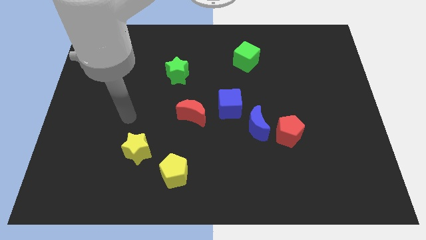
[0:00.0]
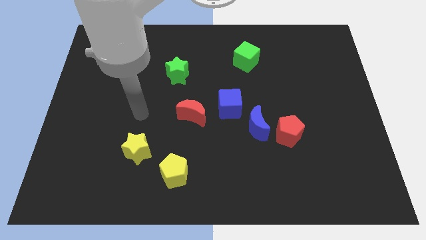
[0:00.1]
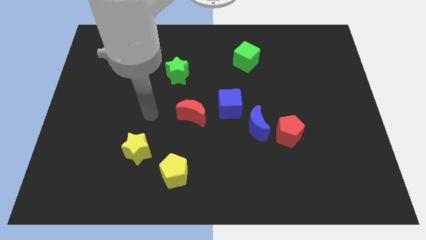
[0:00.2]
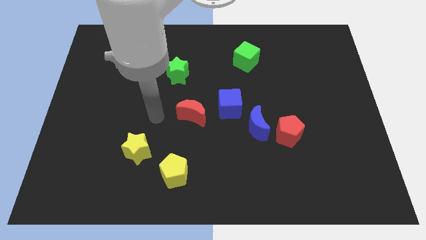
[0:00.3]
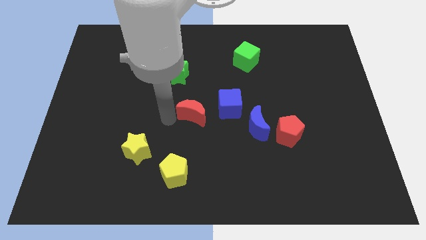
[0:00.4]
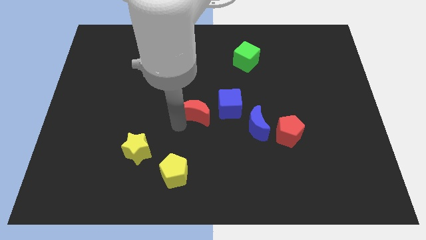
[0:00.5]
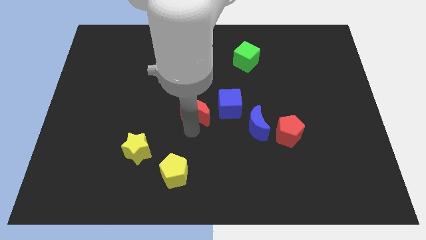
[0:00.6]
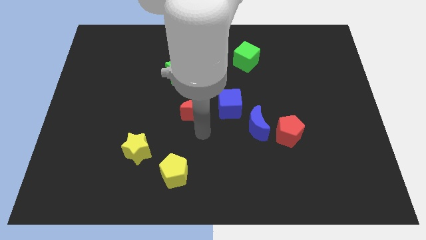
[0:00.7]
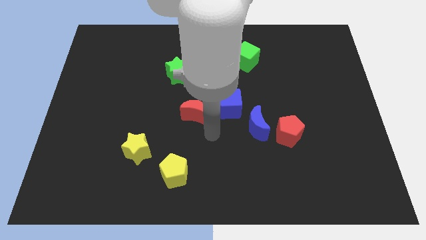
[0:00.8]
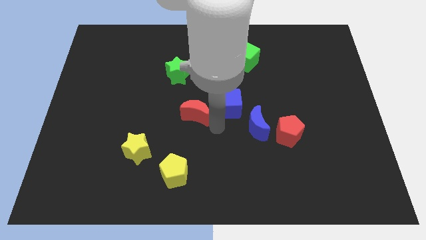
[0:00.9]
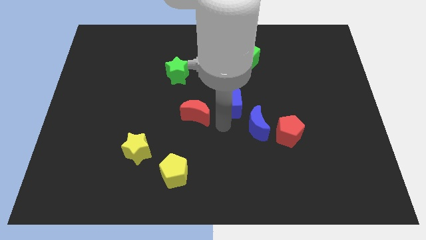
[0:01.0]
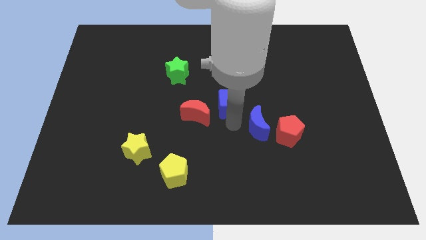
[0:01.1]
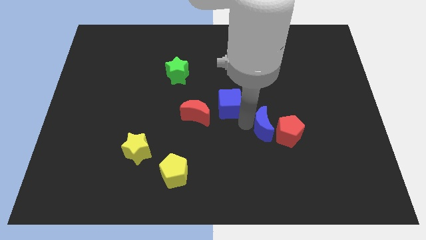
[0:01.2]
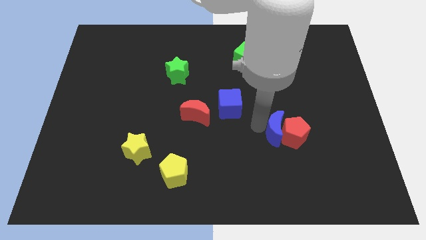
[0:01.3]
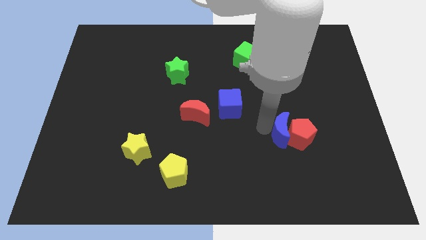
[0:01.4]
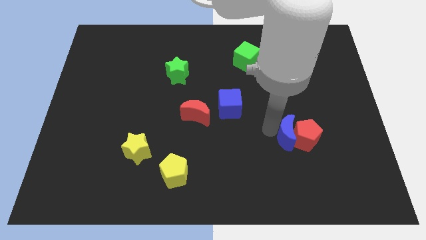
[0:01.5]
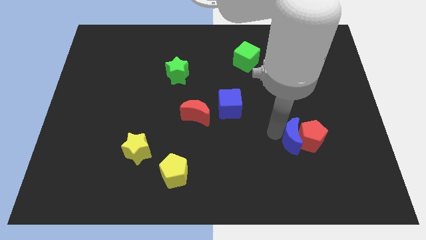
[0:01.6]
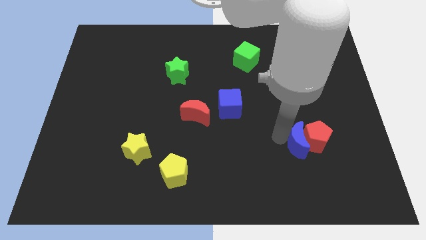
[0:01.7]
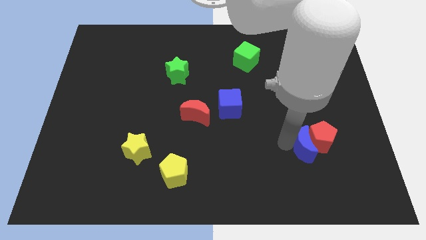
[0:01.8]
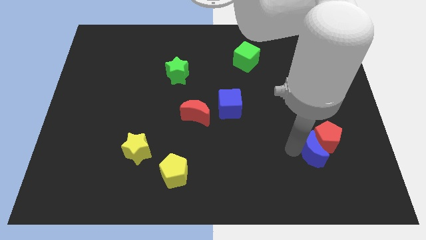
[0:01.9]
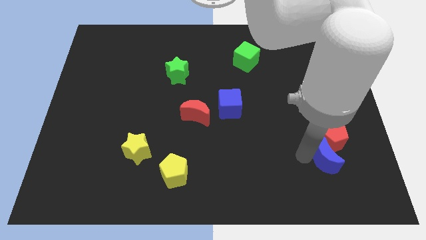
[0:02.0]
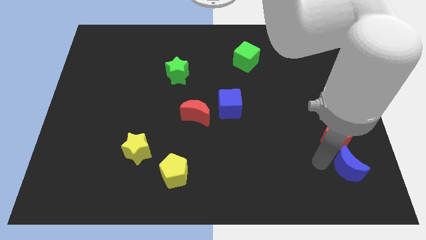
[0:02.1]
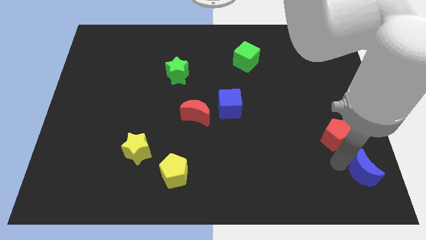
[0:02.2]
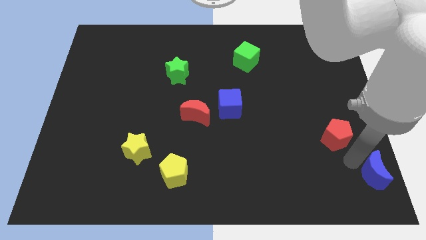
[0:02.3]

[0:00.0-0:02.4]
pull the red pentagon apart from the blue moon

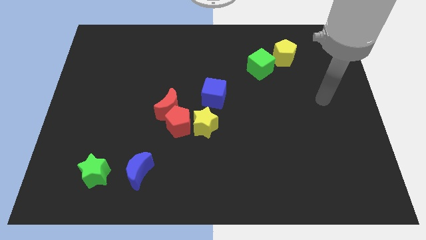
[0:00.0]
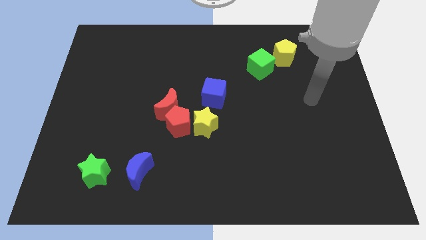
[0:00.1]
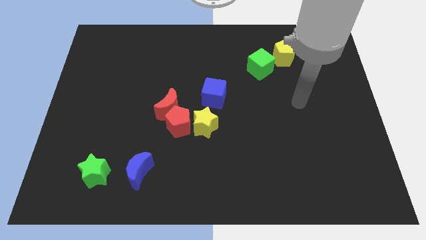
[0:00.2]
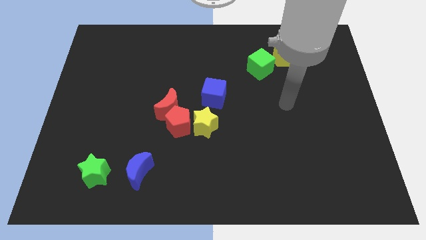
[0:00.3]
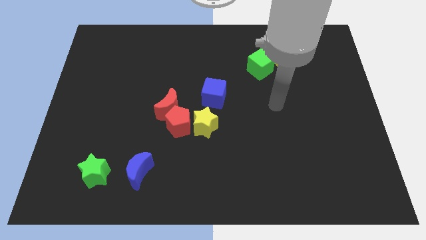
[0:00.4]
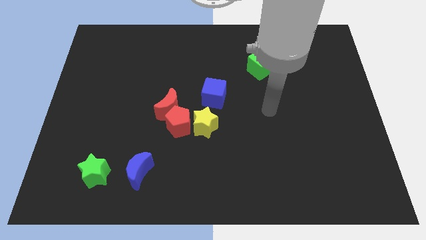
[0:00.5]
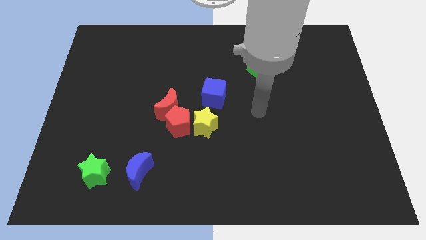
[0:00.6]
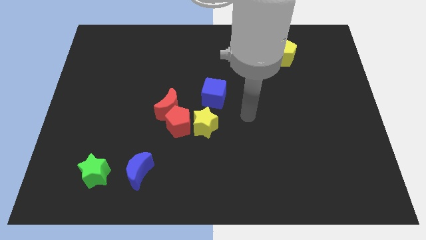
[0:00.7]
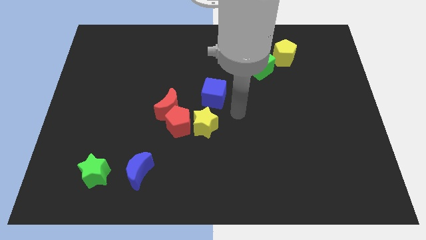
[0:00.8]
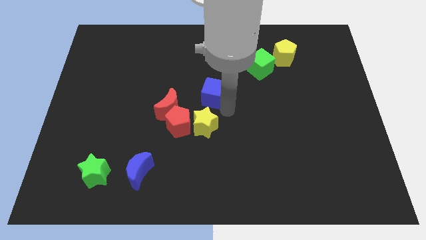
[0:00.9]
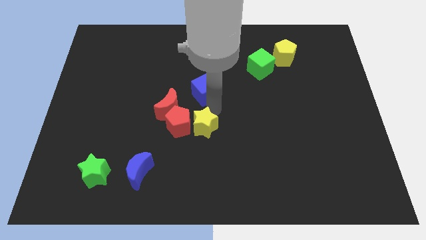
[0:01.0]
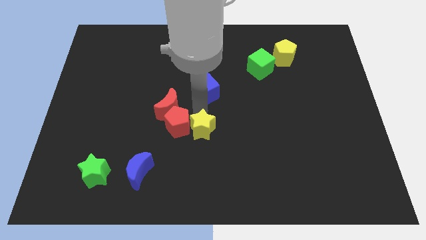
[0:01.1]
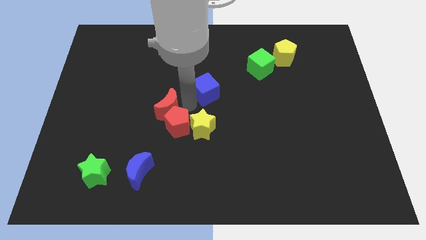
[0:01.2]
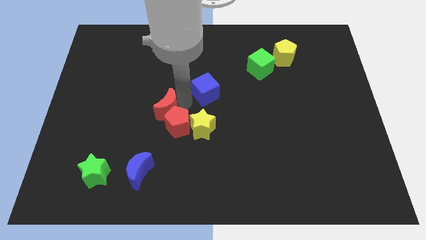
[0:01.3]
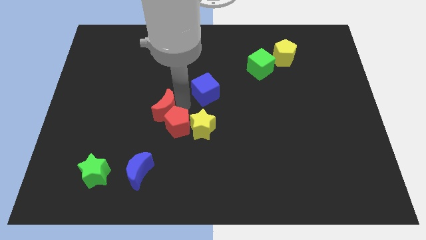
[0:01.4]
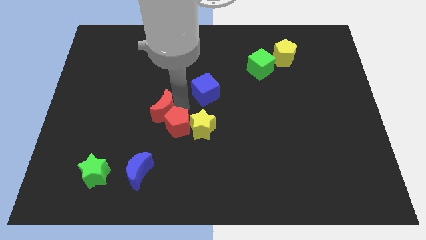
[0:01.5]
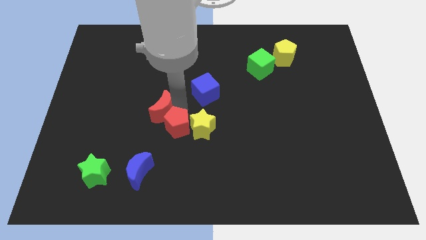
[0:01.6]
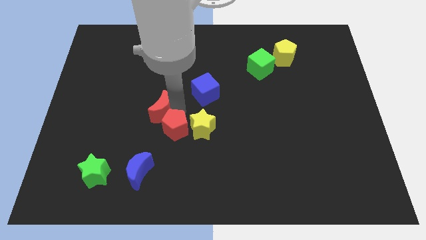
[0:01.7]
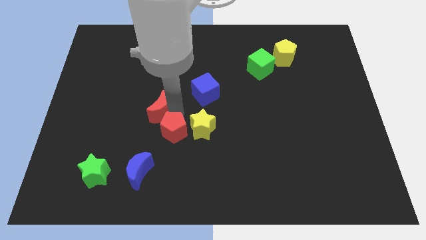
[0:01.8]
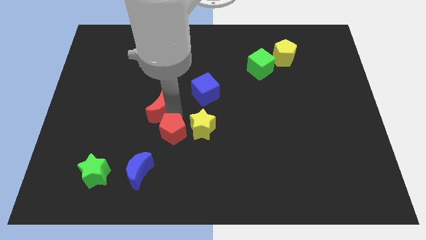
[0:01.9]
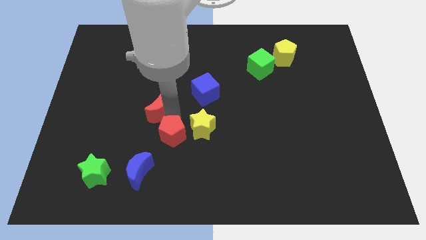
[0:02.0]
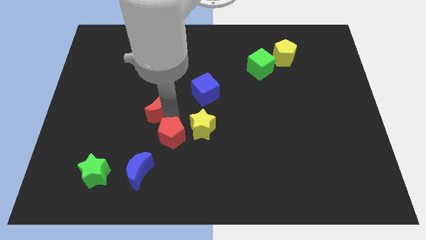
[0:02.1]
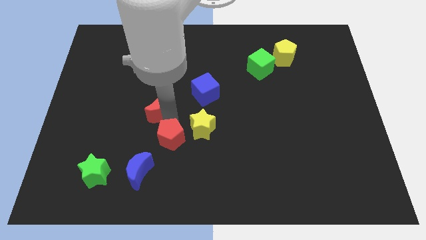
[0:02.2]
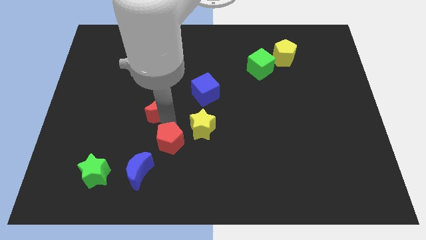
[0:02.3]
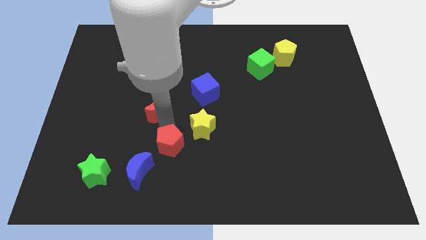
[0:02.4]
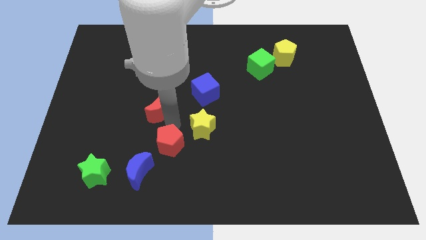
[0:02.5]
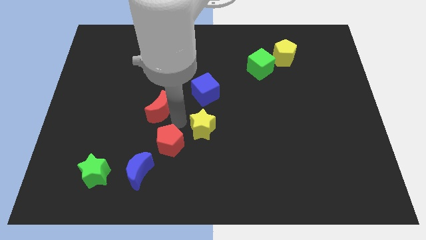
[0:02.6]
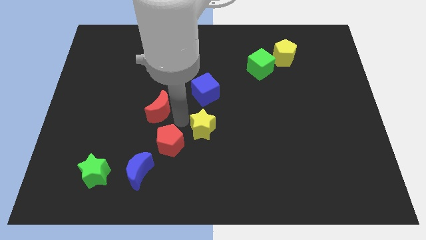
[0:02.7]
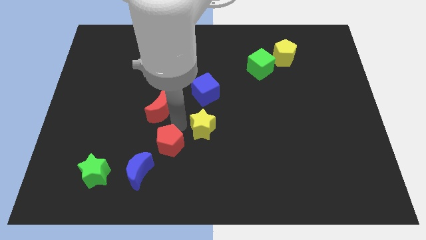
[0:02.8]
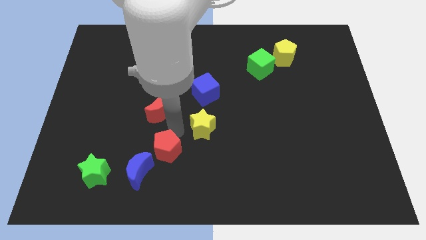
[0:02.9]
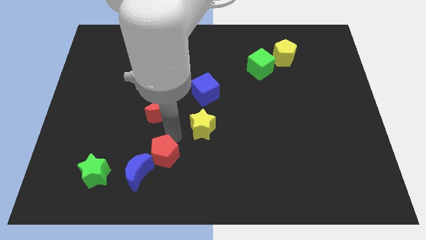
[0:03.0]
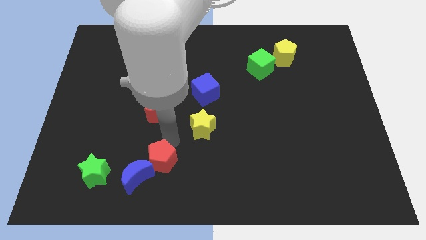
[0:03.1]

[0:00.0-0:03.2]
separate the red pentagon from the red moon and yellow star

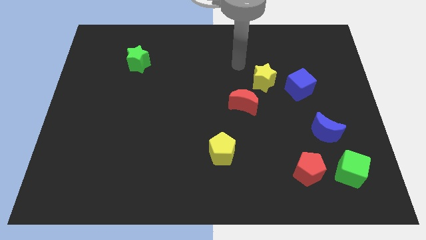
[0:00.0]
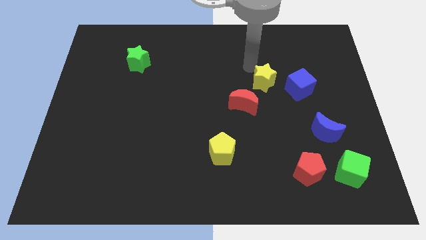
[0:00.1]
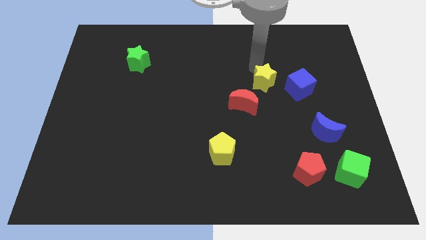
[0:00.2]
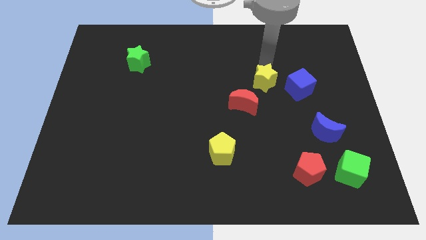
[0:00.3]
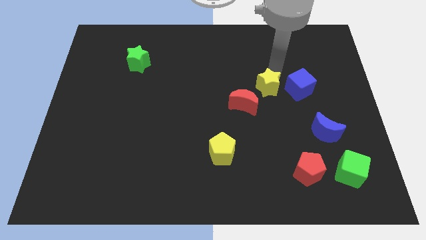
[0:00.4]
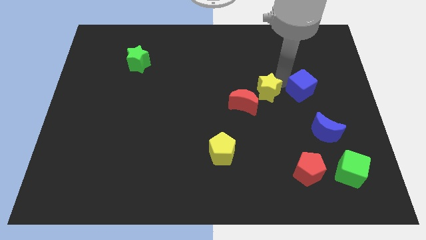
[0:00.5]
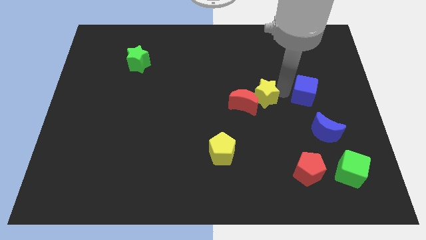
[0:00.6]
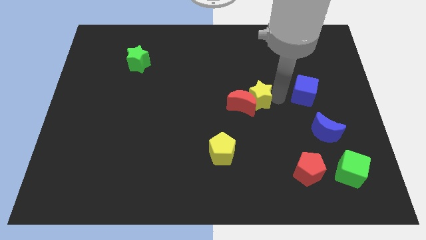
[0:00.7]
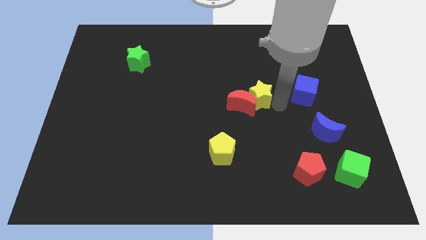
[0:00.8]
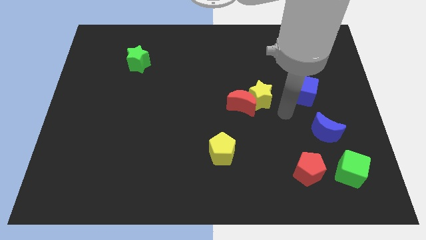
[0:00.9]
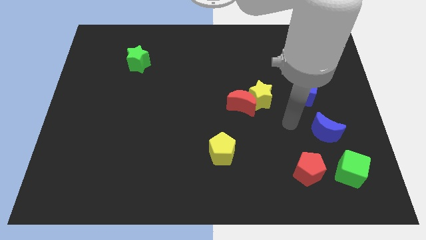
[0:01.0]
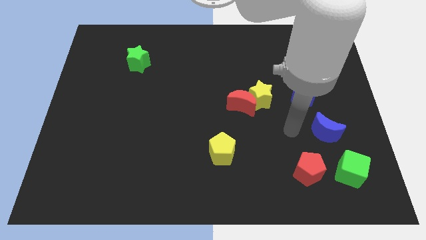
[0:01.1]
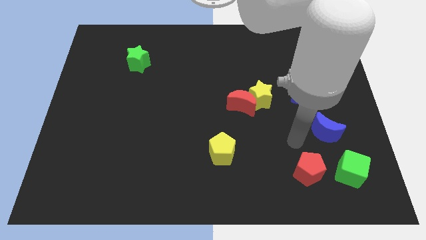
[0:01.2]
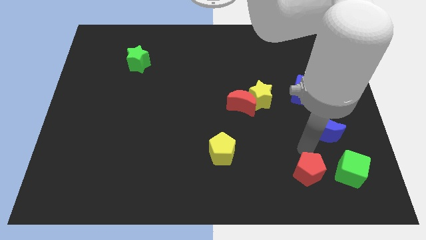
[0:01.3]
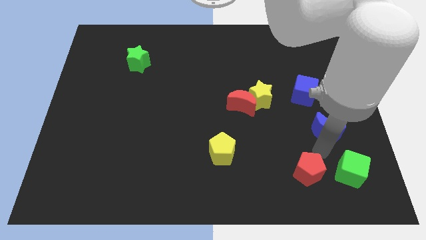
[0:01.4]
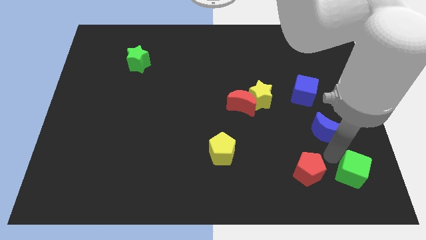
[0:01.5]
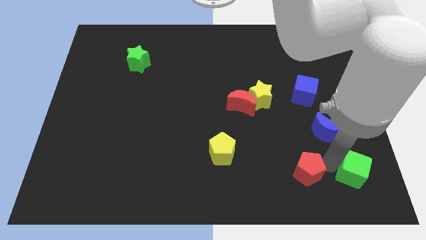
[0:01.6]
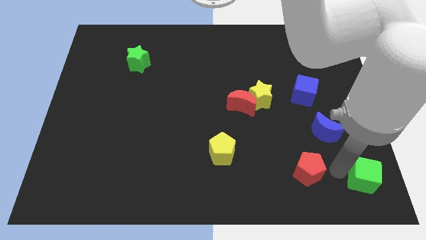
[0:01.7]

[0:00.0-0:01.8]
move the red pentagon away from the green cube

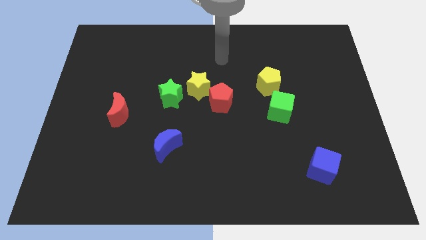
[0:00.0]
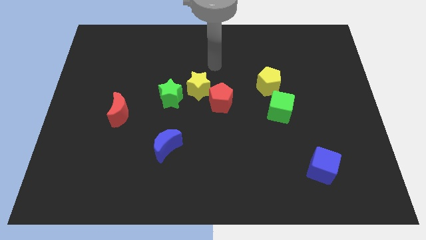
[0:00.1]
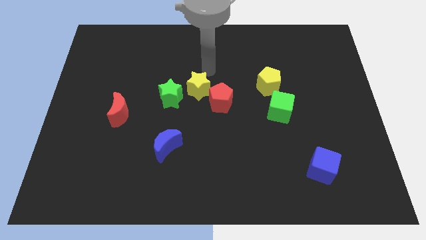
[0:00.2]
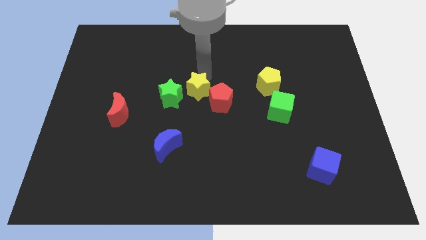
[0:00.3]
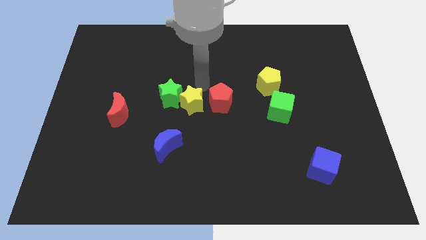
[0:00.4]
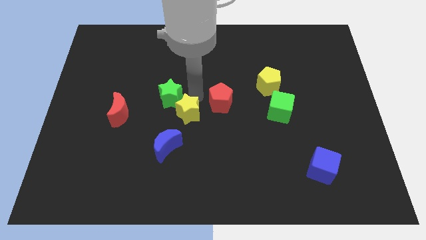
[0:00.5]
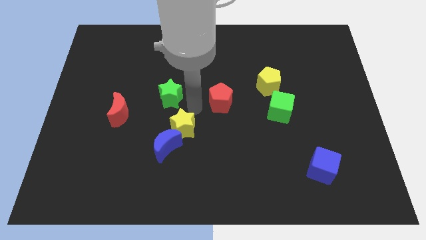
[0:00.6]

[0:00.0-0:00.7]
separate the red pentagon from the yellow star

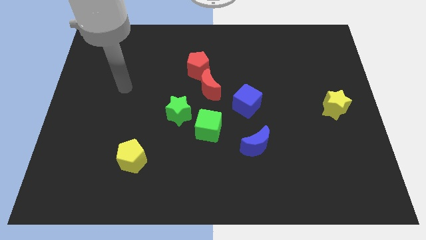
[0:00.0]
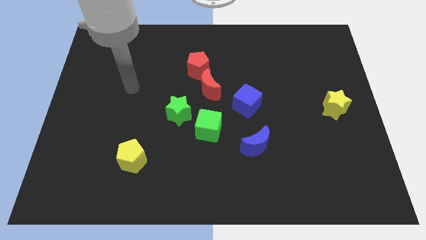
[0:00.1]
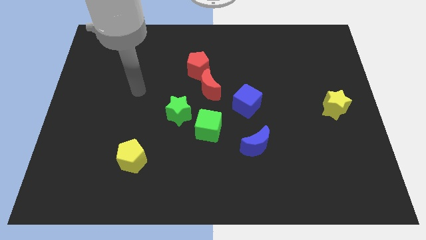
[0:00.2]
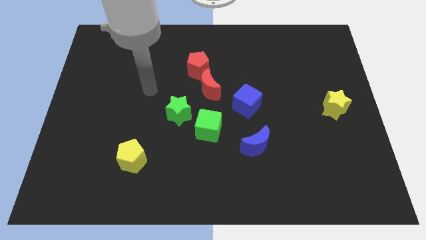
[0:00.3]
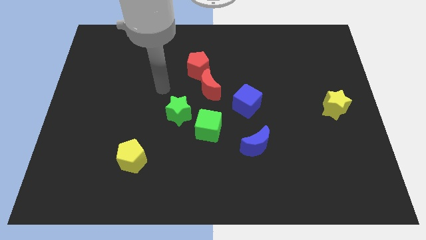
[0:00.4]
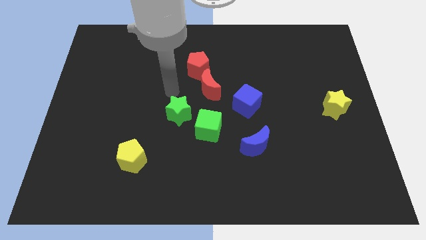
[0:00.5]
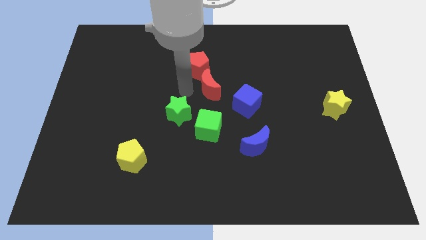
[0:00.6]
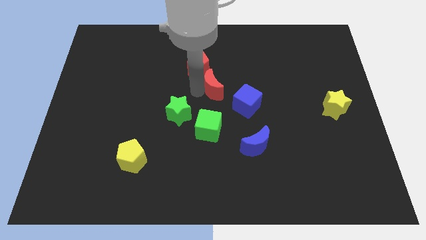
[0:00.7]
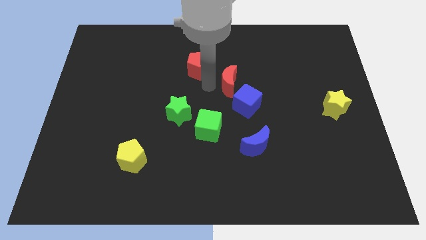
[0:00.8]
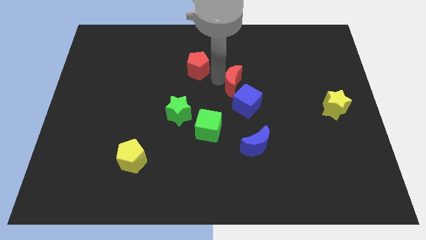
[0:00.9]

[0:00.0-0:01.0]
separate the red pentagon from the red moon

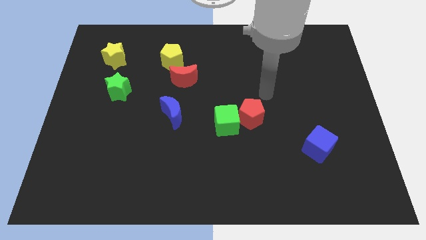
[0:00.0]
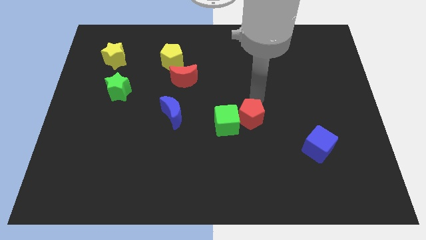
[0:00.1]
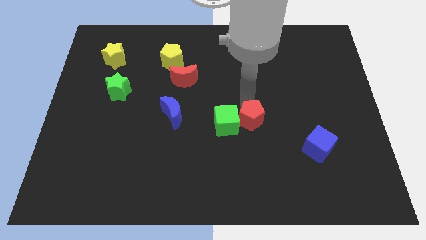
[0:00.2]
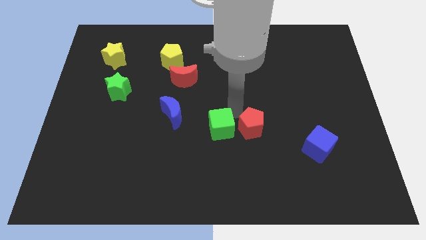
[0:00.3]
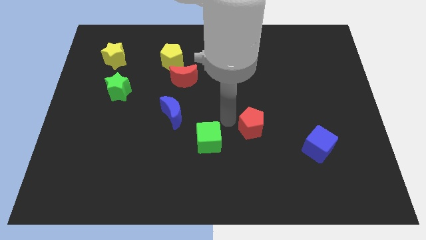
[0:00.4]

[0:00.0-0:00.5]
separate the red pentagon from the green cube
